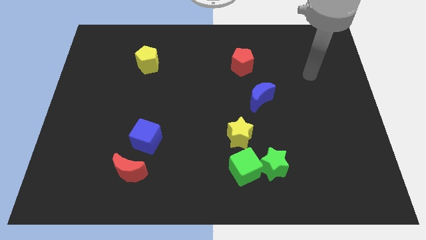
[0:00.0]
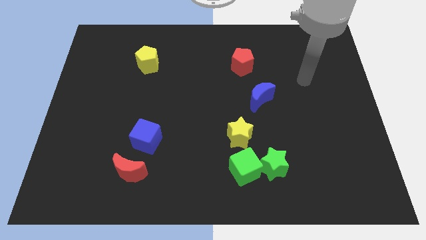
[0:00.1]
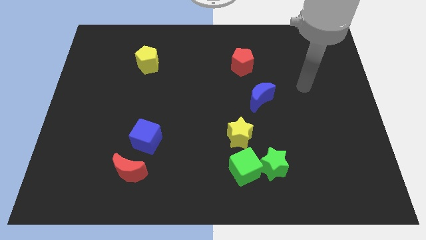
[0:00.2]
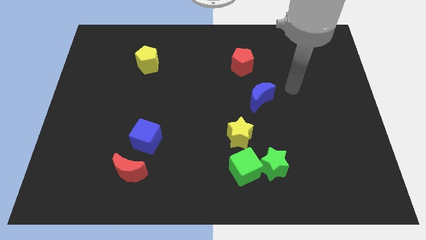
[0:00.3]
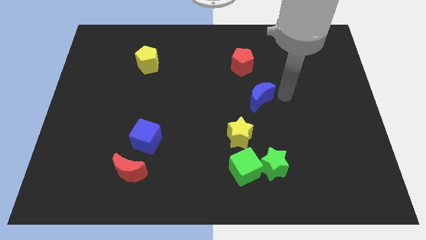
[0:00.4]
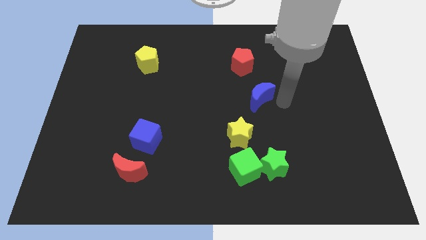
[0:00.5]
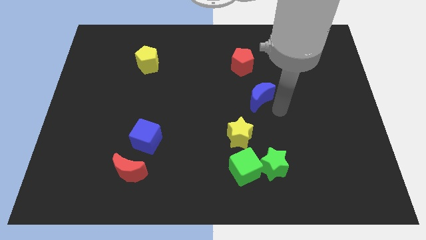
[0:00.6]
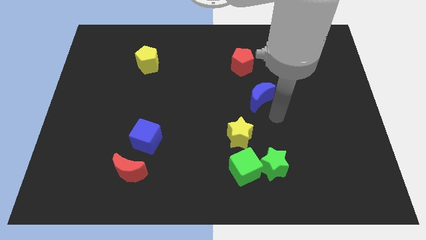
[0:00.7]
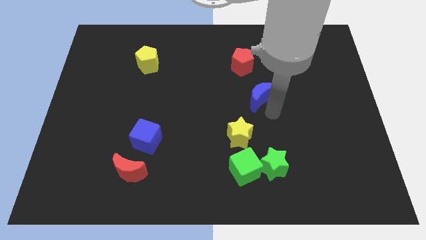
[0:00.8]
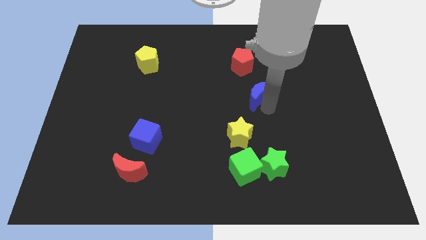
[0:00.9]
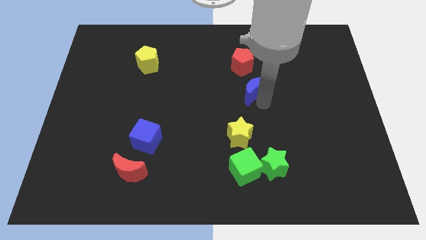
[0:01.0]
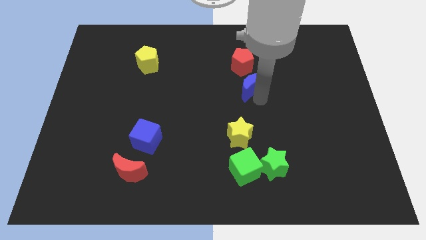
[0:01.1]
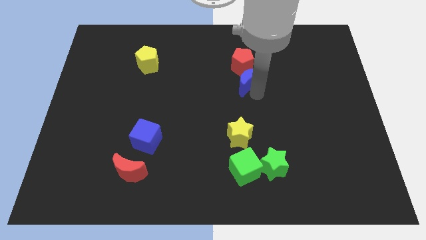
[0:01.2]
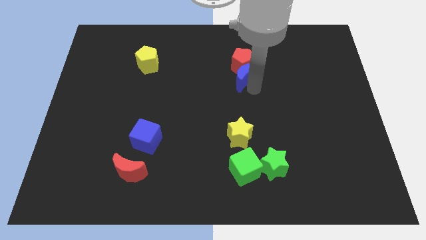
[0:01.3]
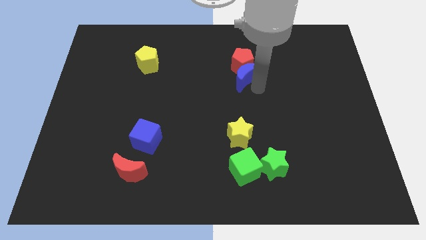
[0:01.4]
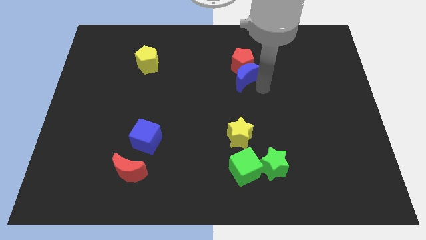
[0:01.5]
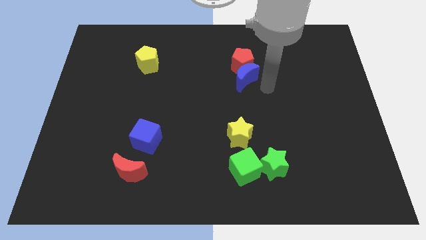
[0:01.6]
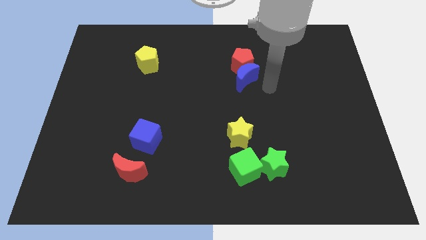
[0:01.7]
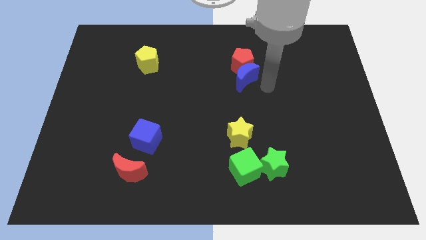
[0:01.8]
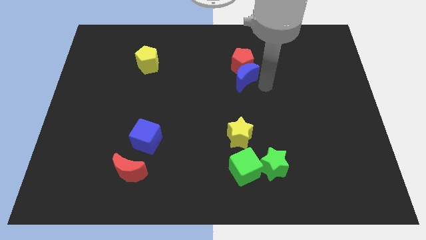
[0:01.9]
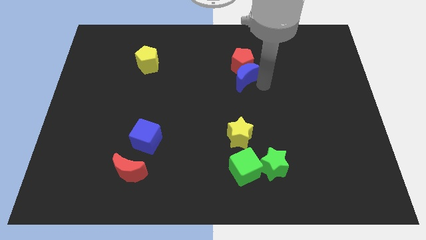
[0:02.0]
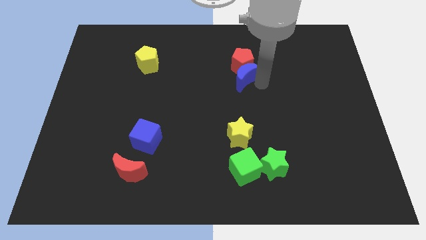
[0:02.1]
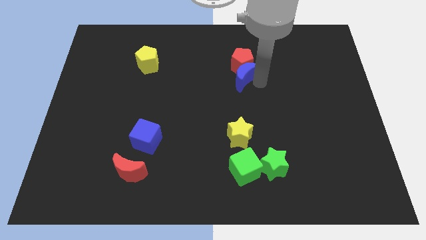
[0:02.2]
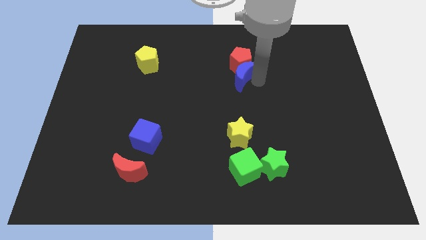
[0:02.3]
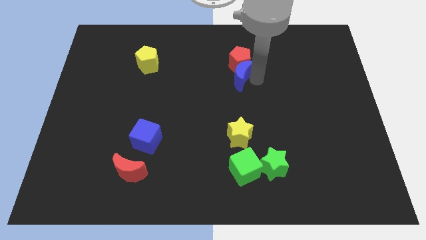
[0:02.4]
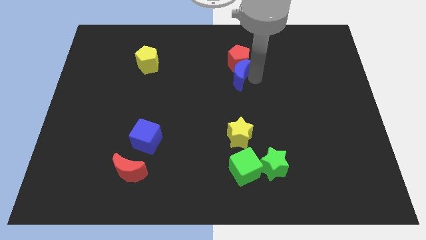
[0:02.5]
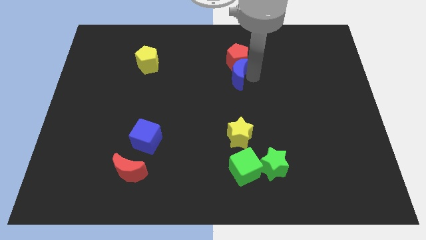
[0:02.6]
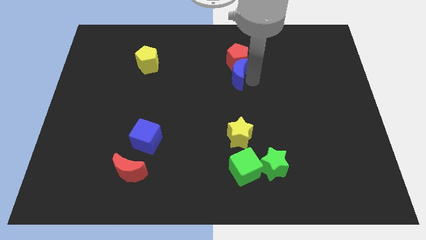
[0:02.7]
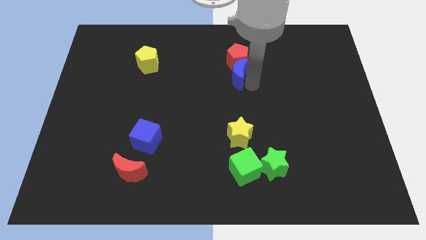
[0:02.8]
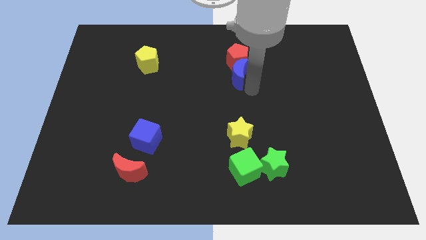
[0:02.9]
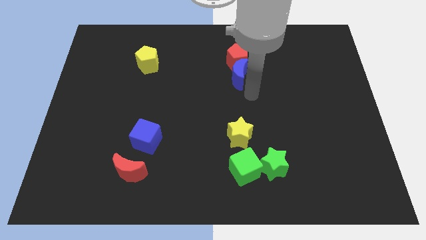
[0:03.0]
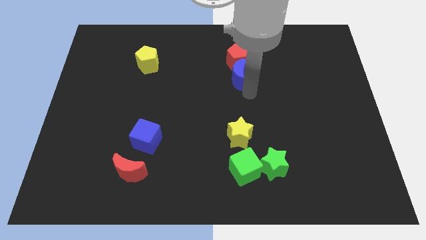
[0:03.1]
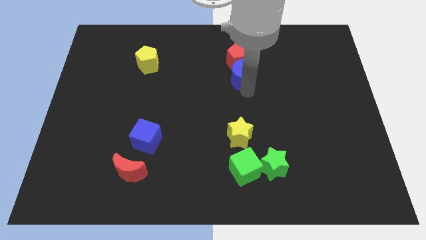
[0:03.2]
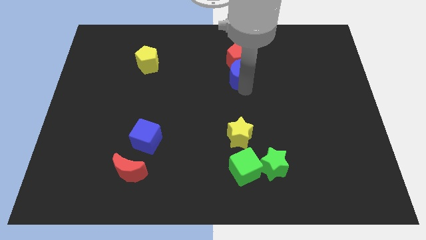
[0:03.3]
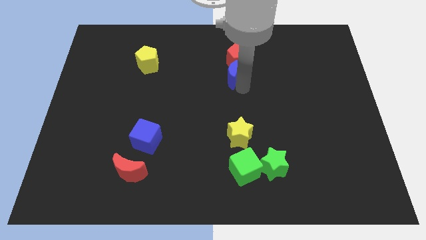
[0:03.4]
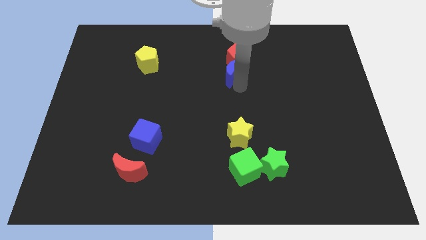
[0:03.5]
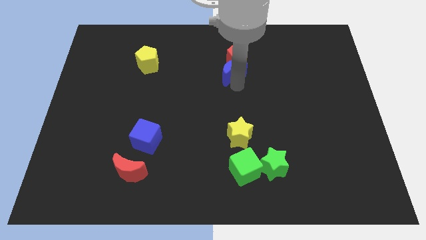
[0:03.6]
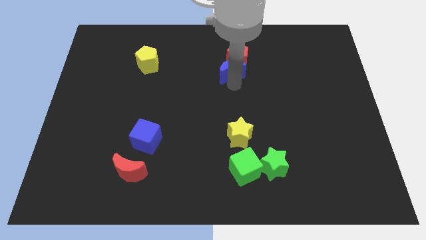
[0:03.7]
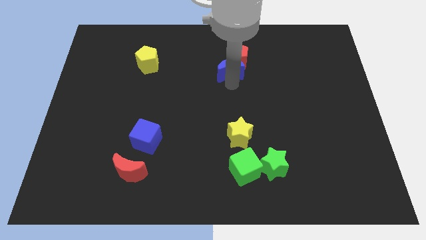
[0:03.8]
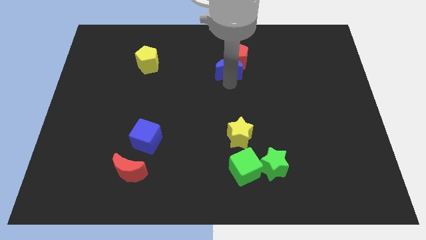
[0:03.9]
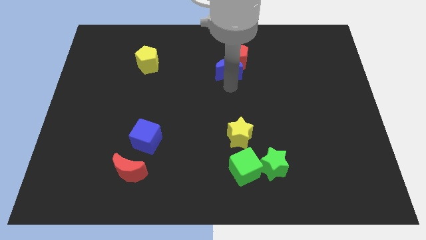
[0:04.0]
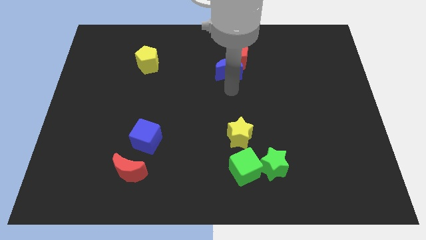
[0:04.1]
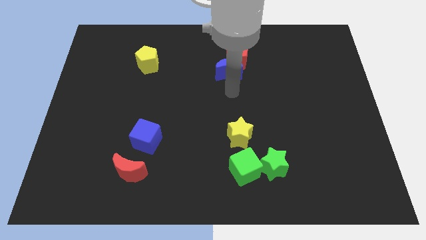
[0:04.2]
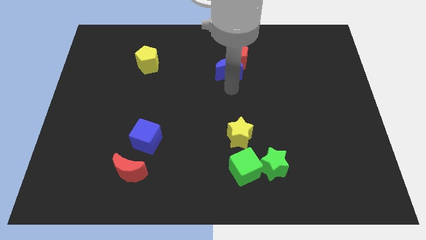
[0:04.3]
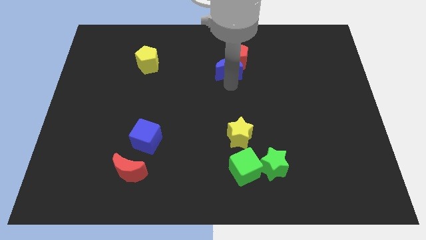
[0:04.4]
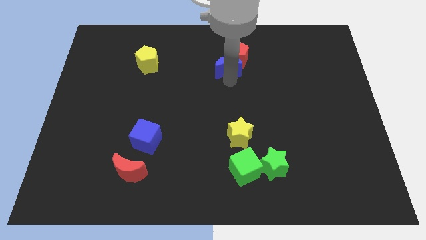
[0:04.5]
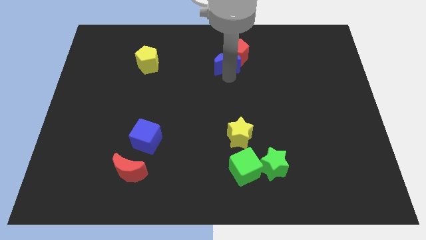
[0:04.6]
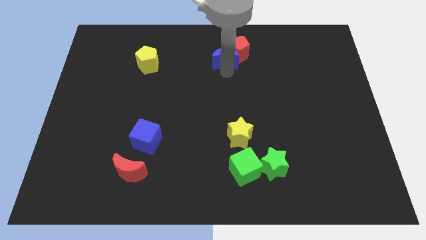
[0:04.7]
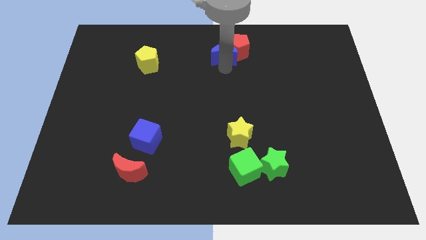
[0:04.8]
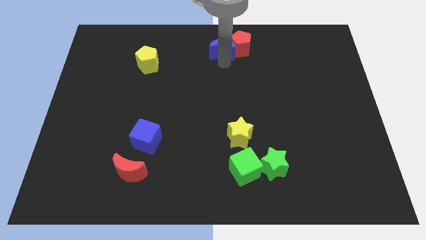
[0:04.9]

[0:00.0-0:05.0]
push the blue moon to the top side

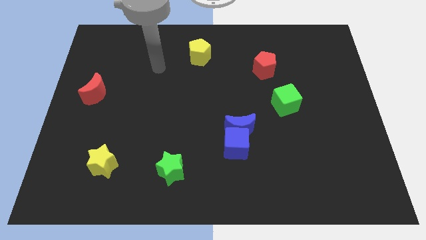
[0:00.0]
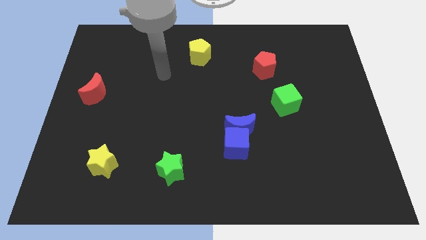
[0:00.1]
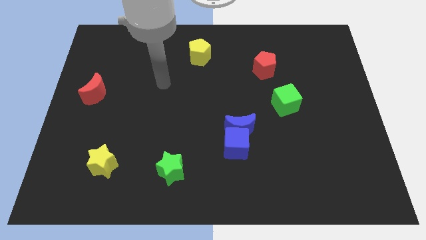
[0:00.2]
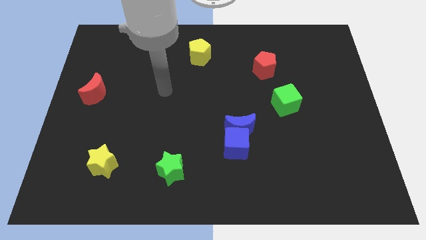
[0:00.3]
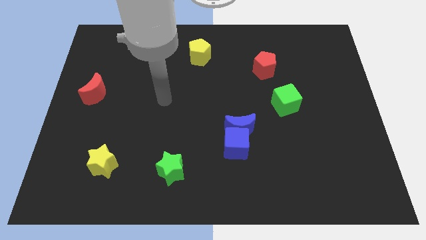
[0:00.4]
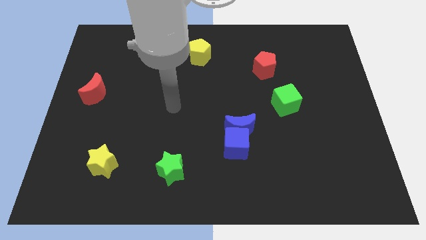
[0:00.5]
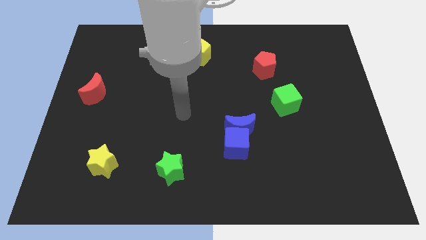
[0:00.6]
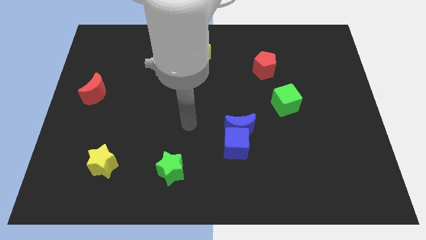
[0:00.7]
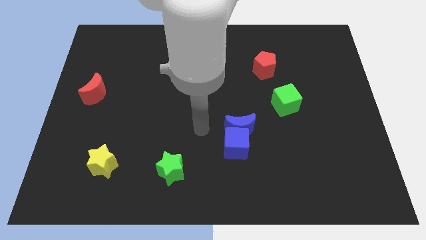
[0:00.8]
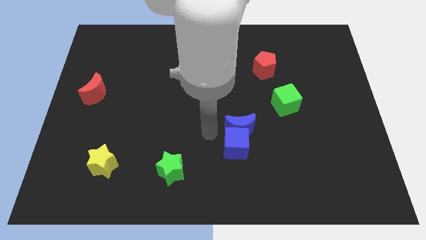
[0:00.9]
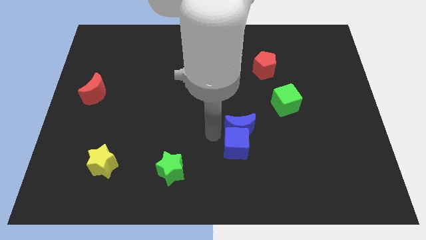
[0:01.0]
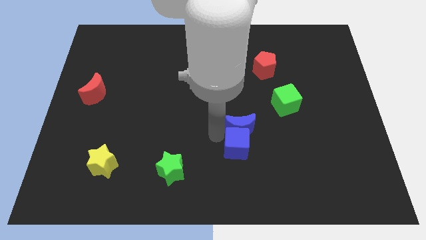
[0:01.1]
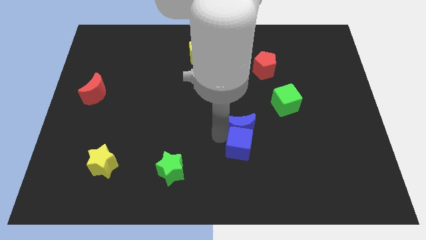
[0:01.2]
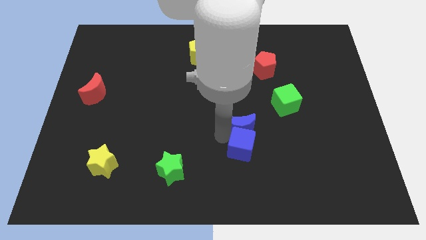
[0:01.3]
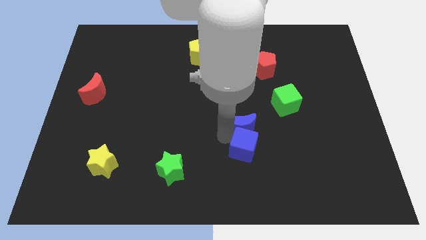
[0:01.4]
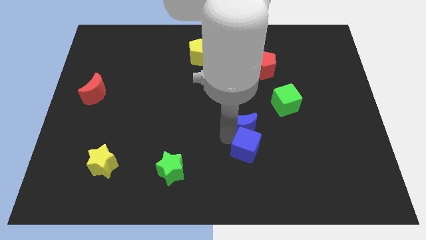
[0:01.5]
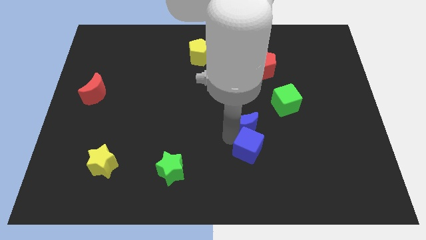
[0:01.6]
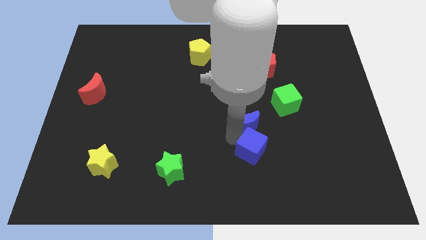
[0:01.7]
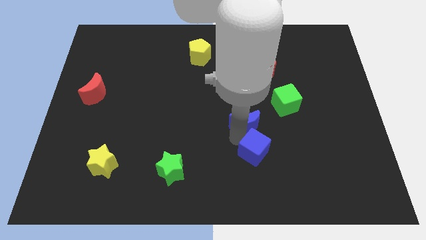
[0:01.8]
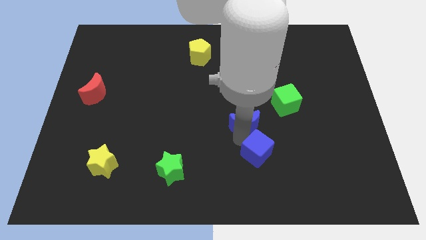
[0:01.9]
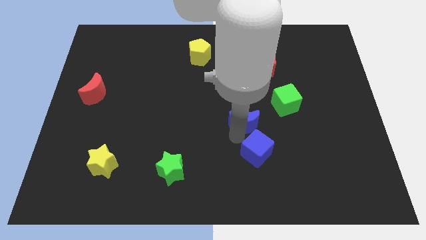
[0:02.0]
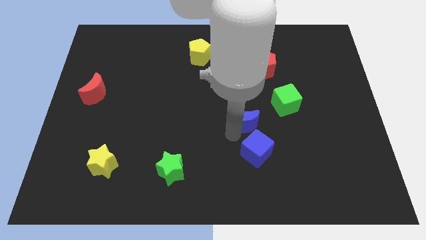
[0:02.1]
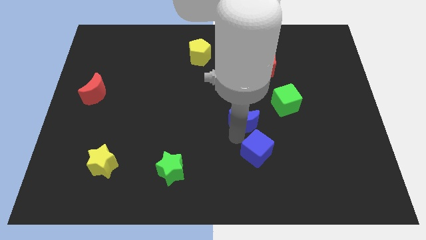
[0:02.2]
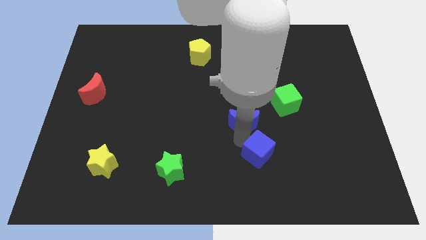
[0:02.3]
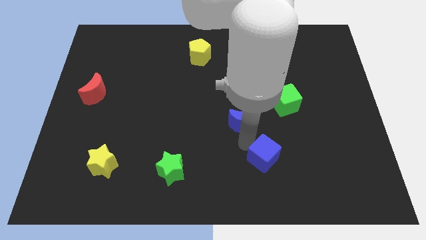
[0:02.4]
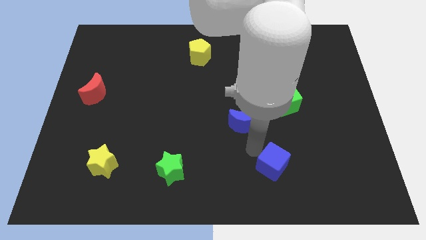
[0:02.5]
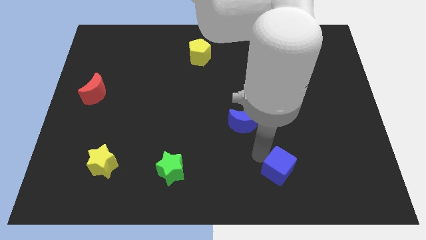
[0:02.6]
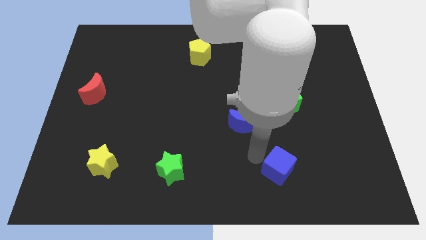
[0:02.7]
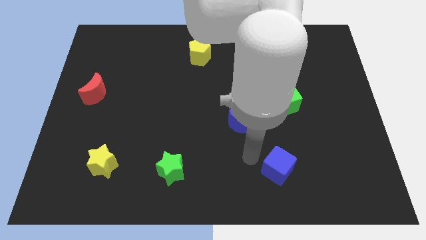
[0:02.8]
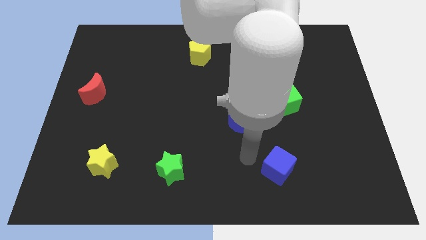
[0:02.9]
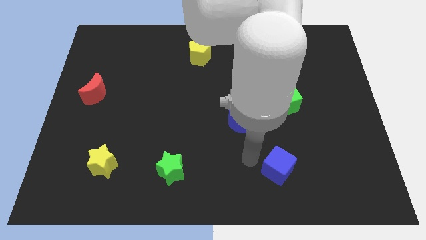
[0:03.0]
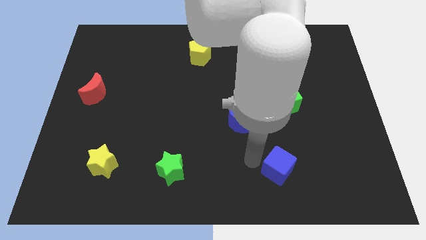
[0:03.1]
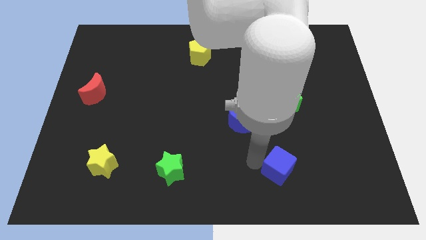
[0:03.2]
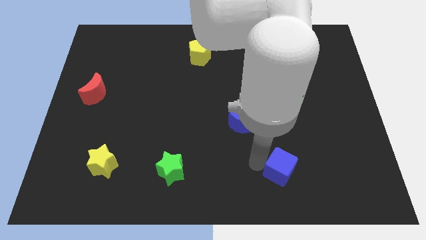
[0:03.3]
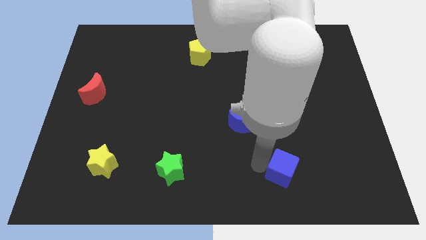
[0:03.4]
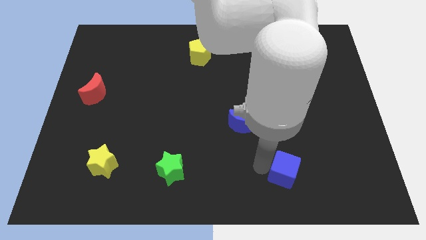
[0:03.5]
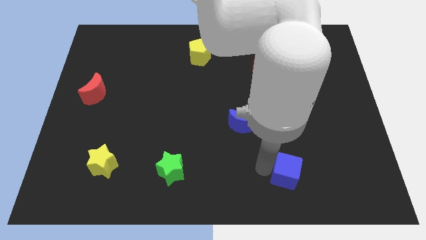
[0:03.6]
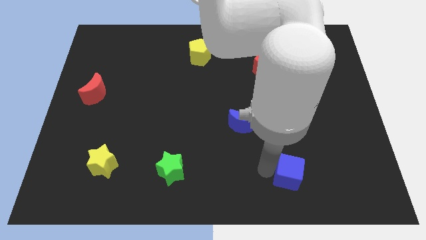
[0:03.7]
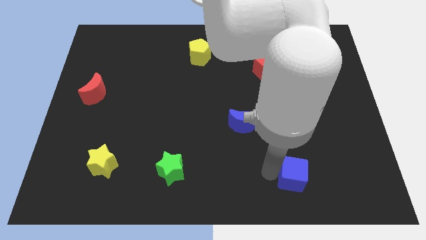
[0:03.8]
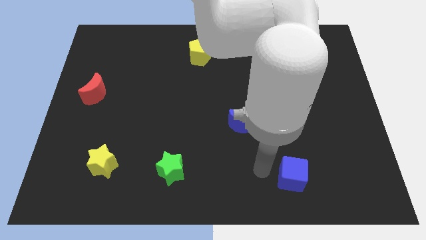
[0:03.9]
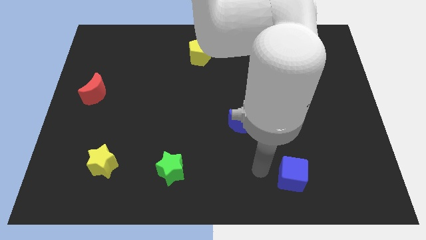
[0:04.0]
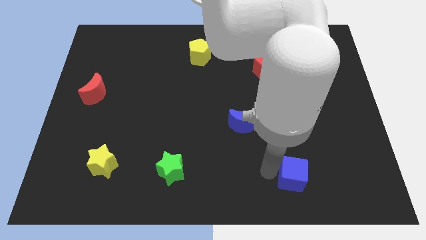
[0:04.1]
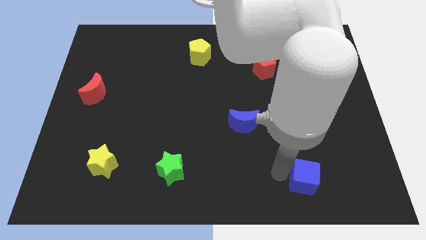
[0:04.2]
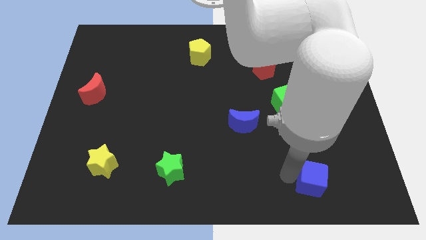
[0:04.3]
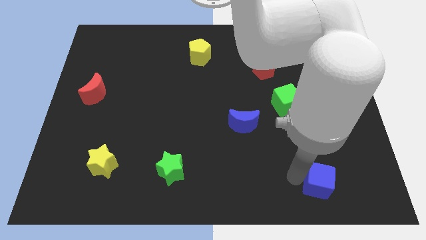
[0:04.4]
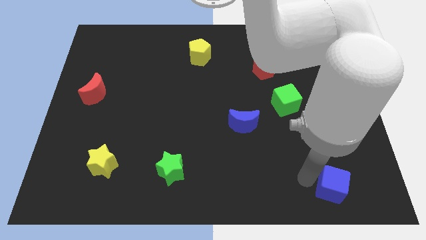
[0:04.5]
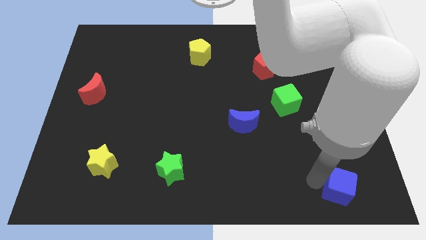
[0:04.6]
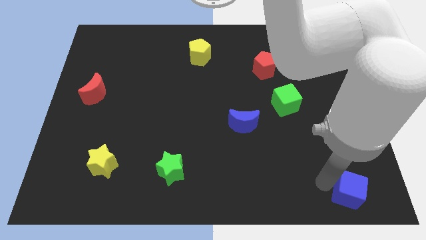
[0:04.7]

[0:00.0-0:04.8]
put the blue cube to the bottom right of the board
